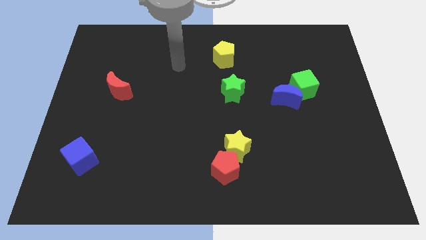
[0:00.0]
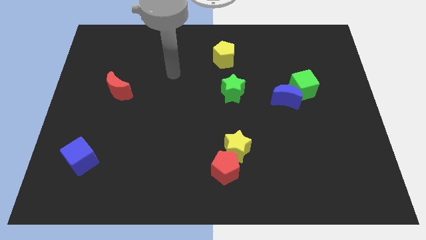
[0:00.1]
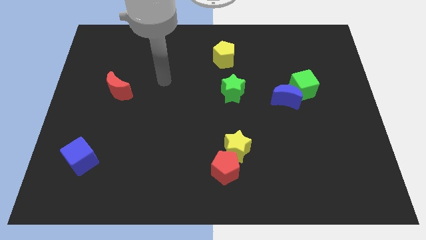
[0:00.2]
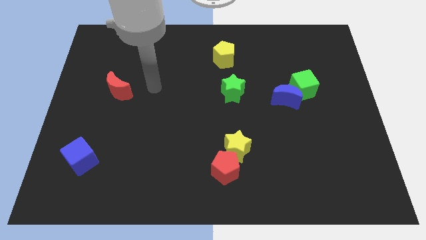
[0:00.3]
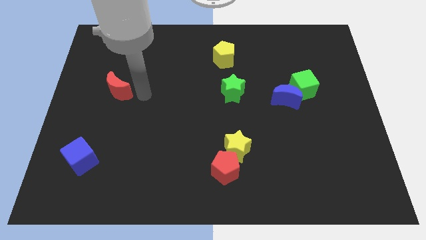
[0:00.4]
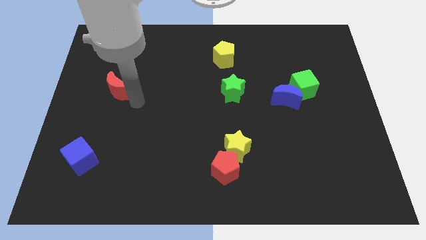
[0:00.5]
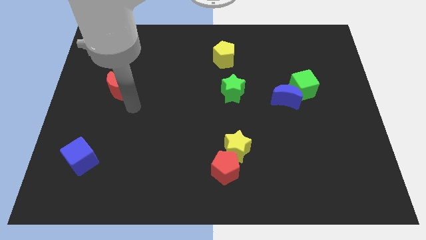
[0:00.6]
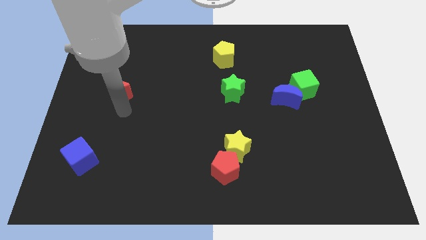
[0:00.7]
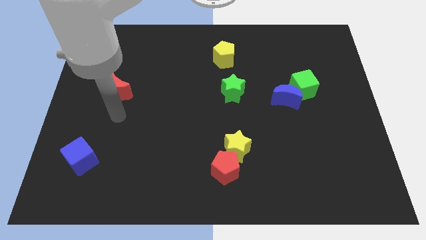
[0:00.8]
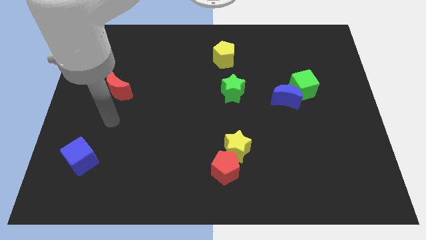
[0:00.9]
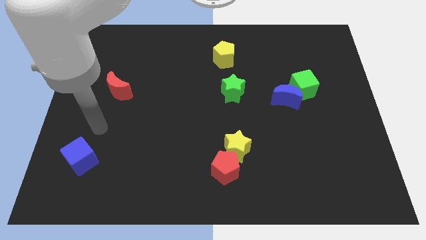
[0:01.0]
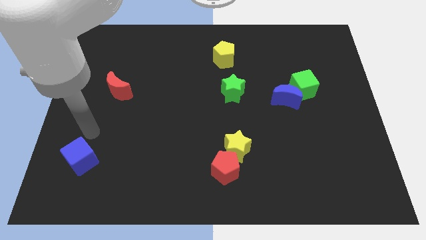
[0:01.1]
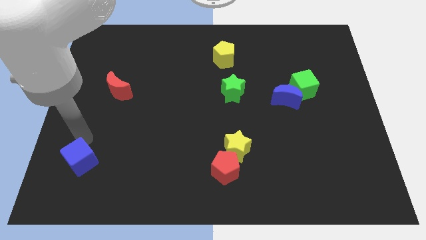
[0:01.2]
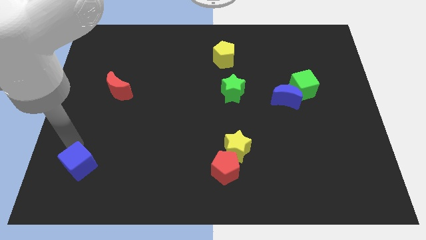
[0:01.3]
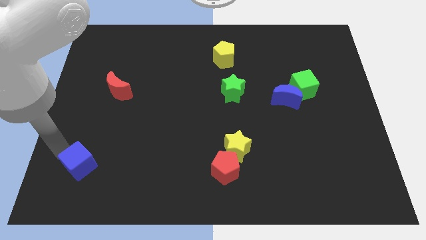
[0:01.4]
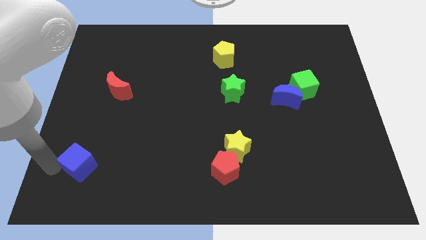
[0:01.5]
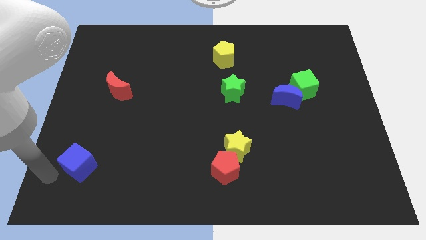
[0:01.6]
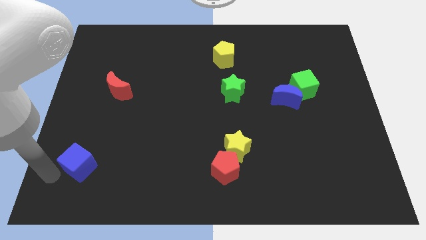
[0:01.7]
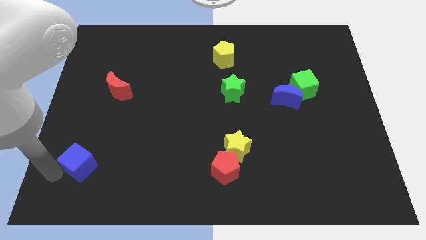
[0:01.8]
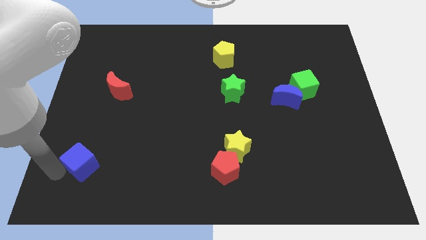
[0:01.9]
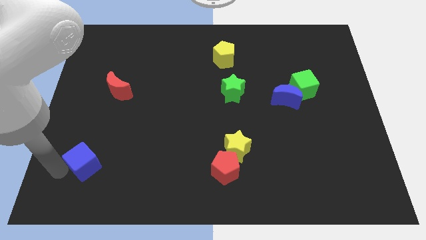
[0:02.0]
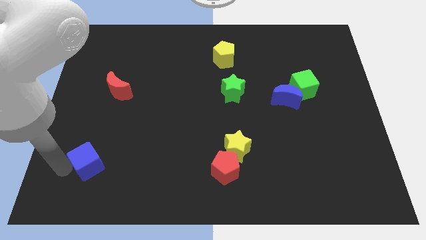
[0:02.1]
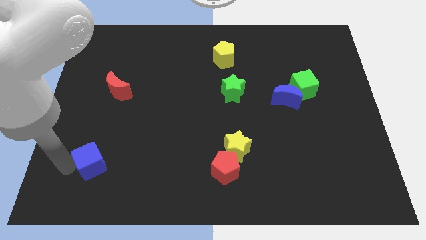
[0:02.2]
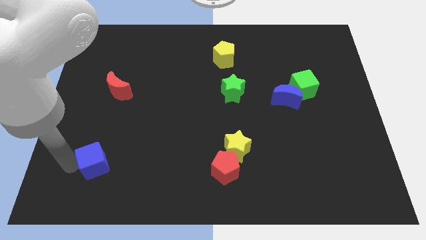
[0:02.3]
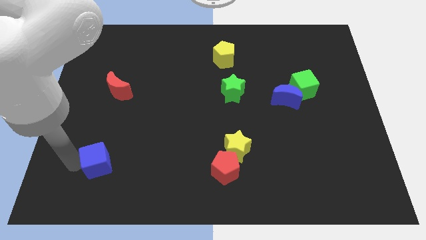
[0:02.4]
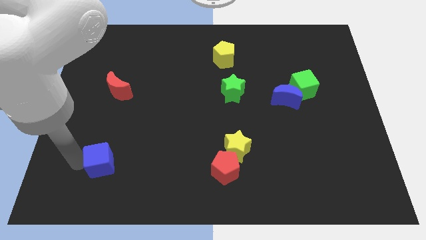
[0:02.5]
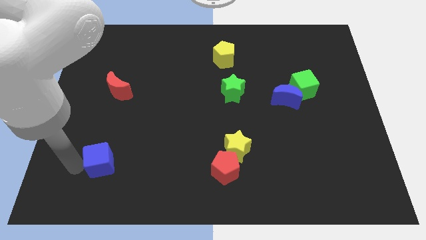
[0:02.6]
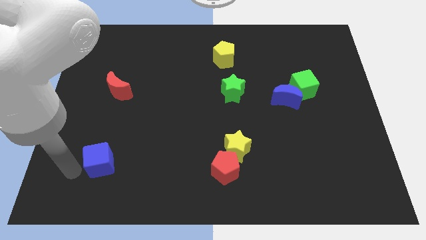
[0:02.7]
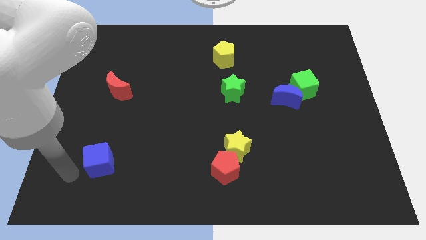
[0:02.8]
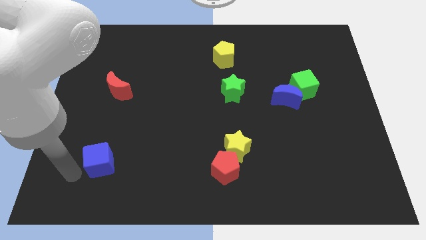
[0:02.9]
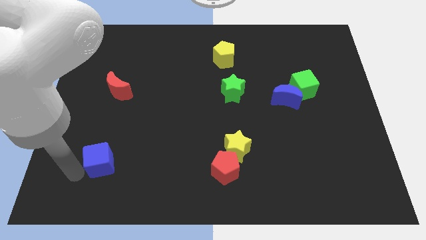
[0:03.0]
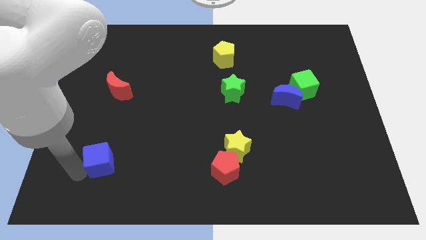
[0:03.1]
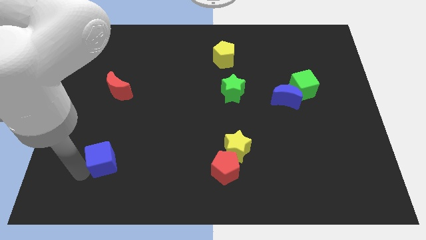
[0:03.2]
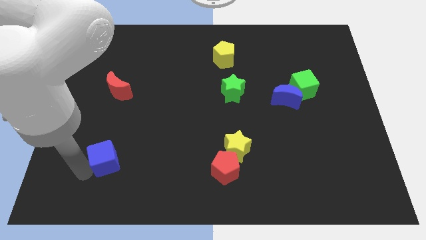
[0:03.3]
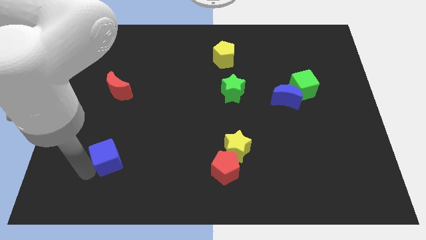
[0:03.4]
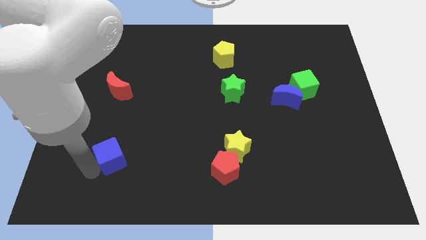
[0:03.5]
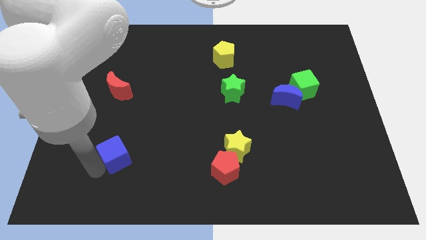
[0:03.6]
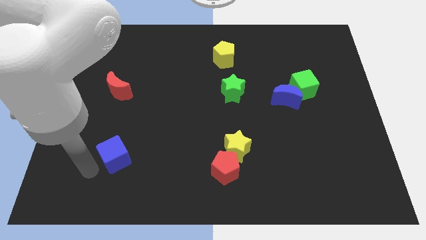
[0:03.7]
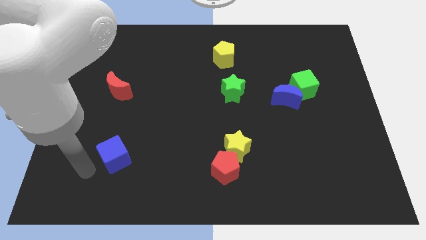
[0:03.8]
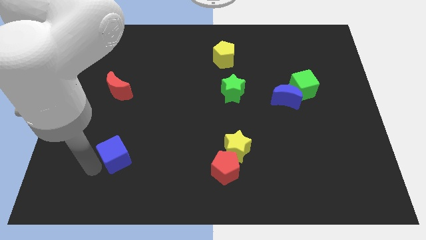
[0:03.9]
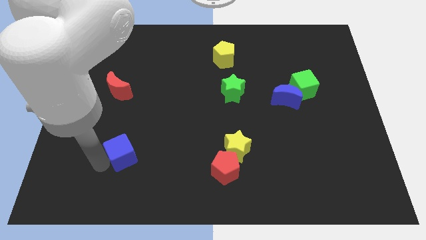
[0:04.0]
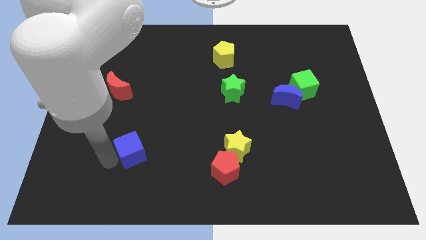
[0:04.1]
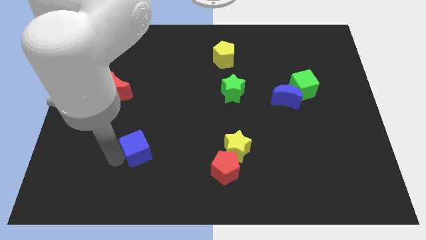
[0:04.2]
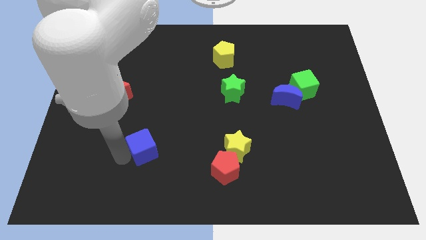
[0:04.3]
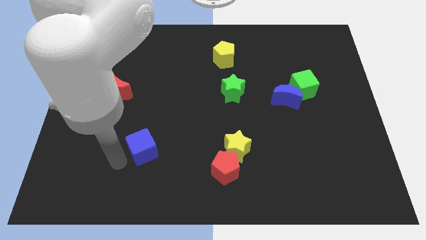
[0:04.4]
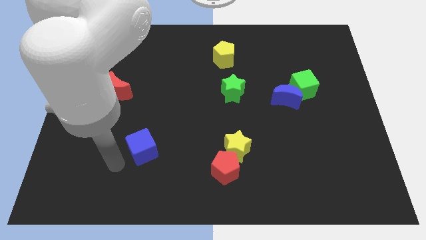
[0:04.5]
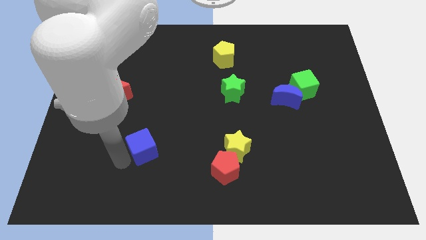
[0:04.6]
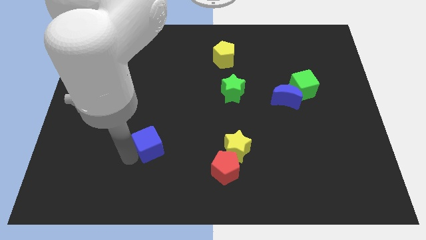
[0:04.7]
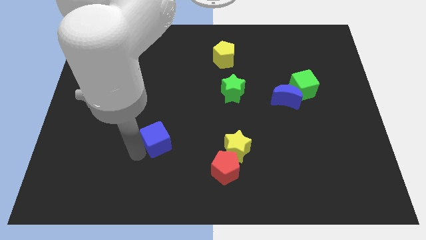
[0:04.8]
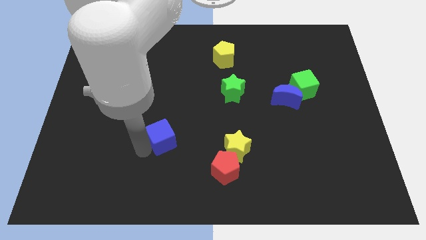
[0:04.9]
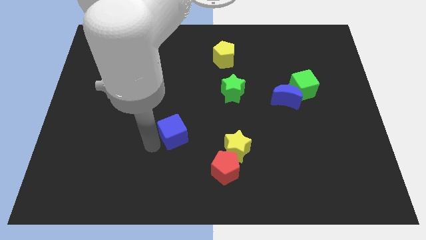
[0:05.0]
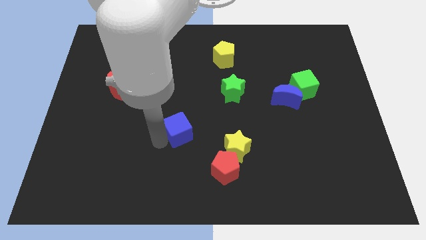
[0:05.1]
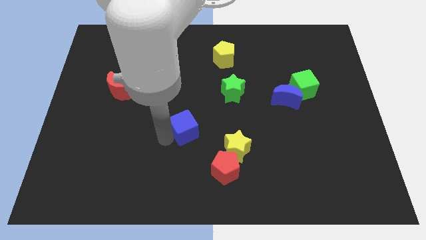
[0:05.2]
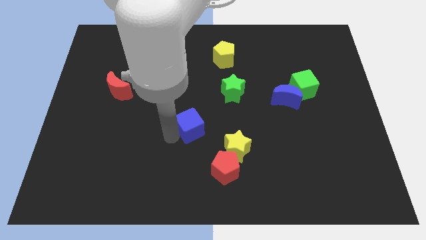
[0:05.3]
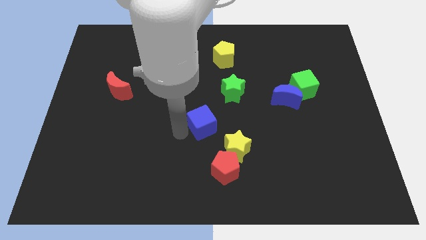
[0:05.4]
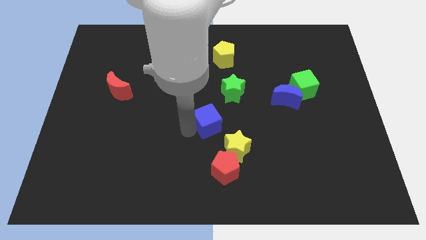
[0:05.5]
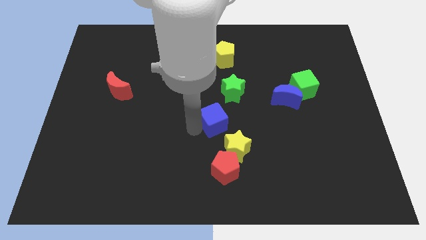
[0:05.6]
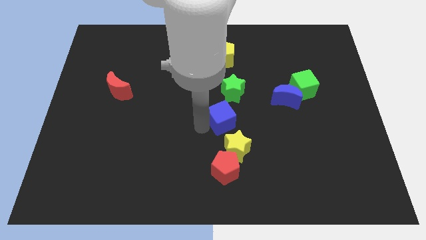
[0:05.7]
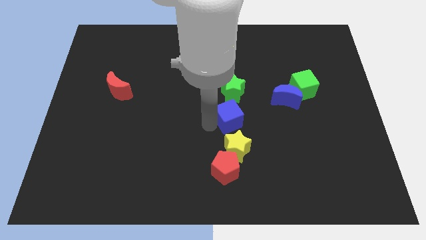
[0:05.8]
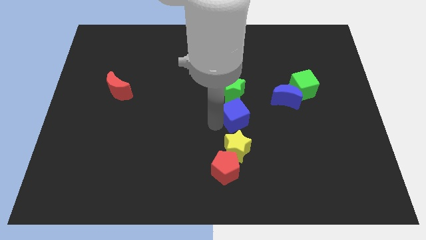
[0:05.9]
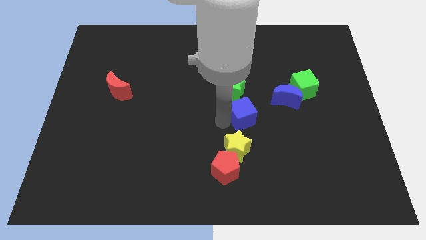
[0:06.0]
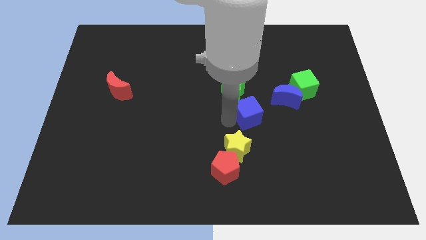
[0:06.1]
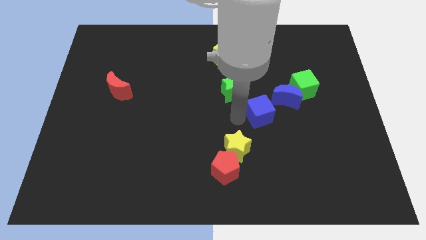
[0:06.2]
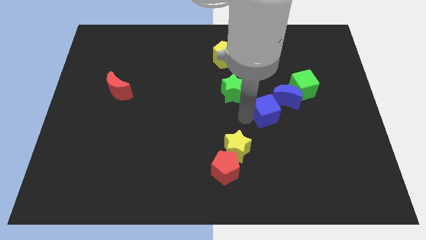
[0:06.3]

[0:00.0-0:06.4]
move the blue cube to the bottom left of the green cube

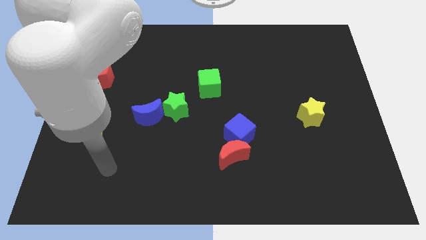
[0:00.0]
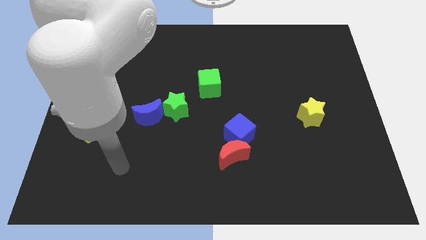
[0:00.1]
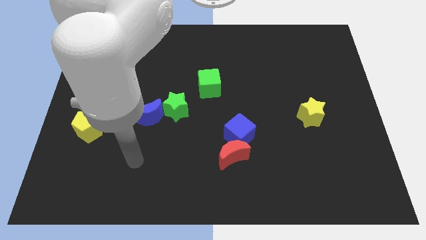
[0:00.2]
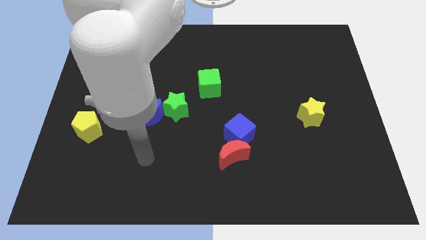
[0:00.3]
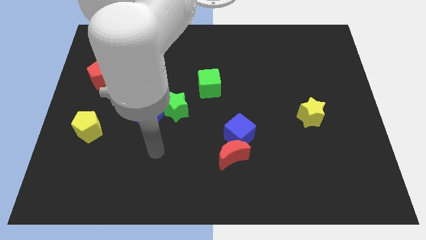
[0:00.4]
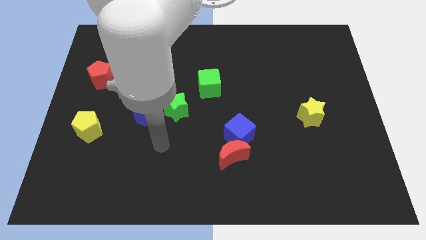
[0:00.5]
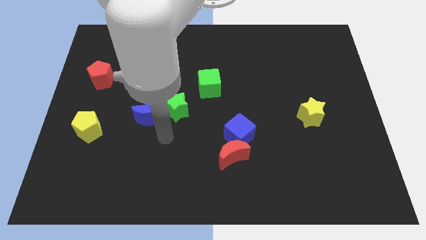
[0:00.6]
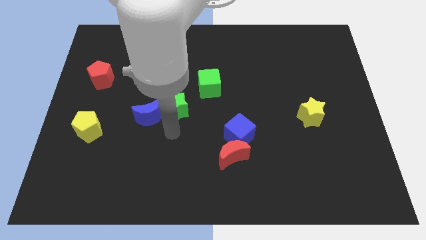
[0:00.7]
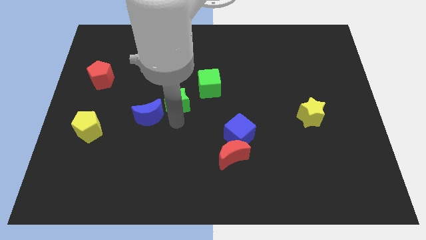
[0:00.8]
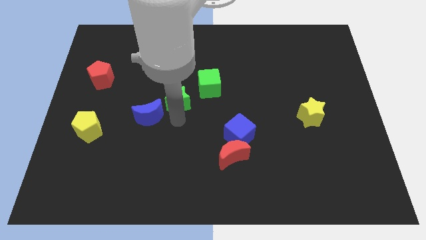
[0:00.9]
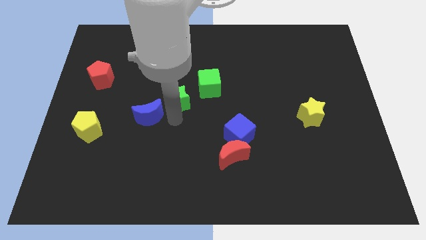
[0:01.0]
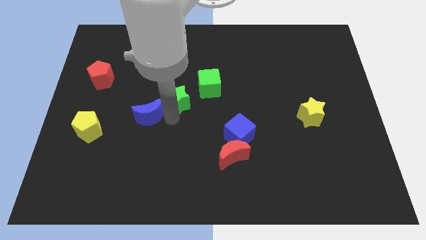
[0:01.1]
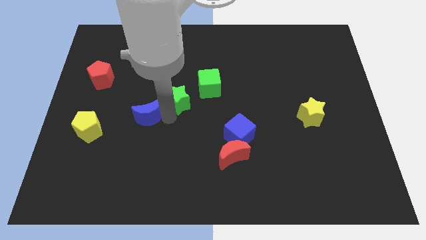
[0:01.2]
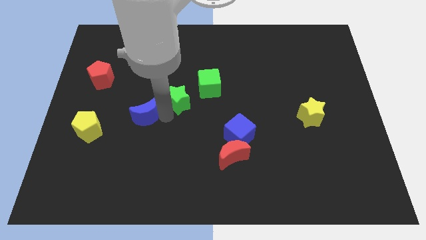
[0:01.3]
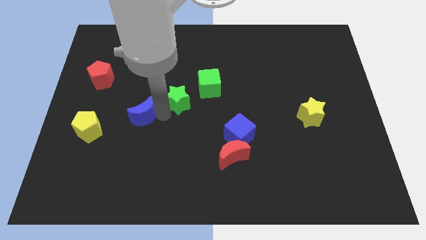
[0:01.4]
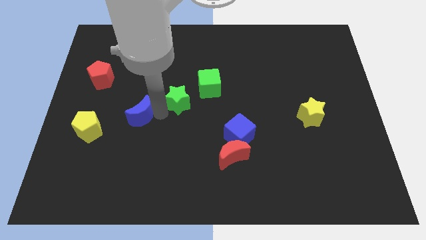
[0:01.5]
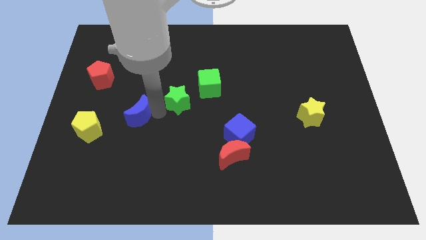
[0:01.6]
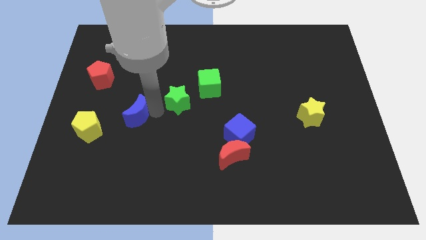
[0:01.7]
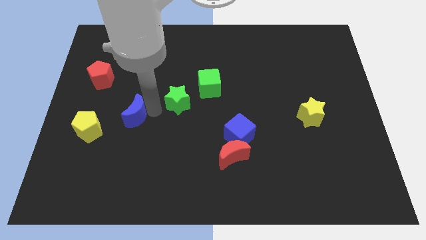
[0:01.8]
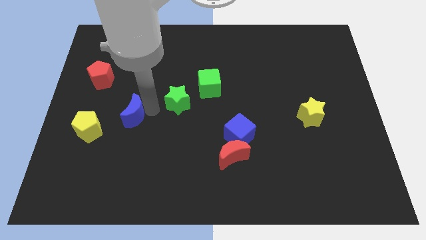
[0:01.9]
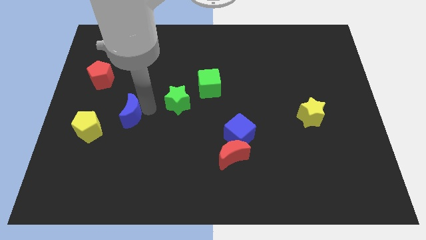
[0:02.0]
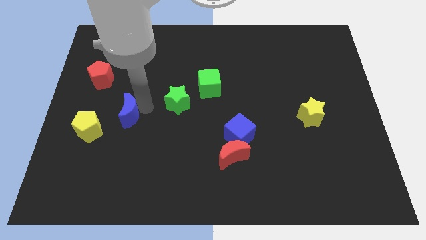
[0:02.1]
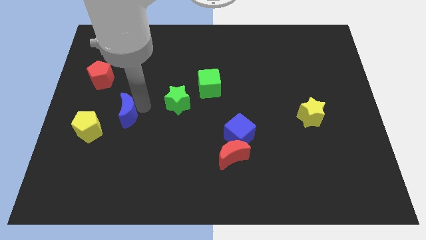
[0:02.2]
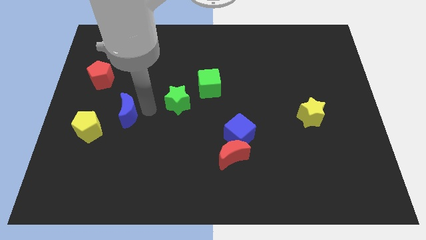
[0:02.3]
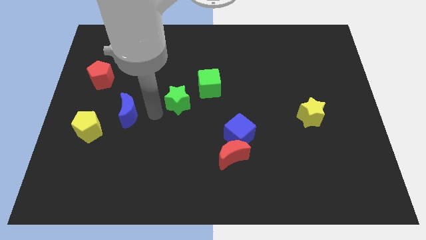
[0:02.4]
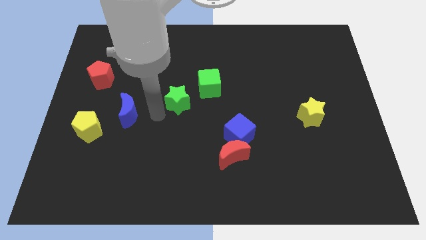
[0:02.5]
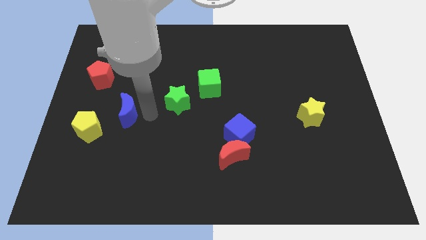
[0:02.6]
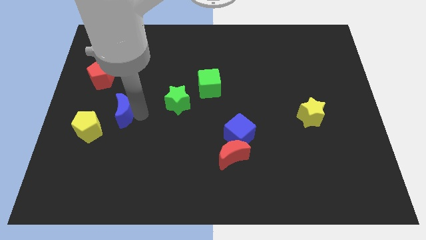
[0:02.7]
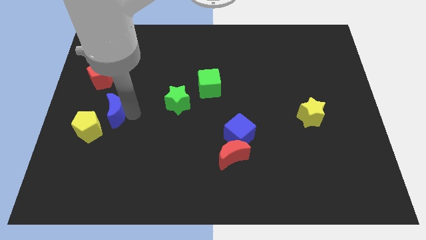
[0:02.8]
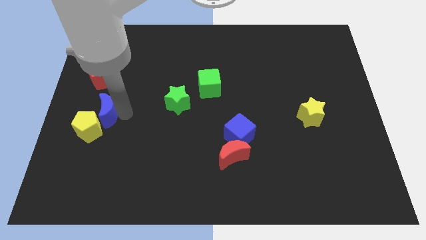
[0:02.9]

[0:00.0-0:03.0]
move the blue moon to the bottom of the red pentagon
